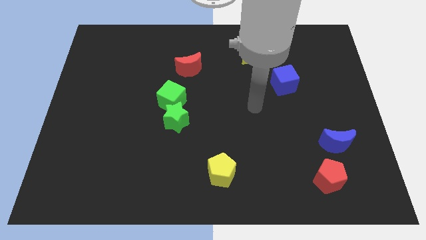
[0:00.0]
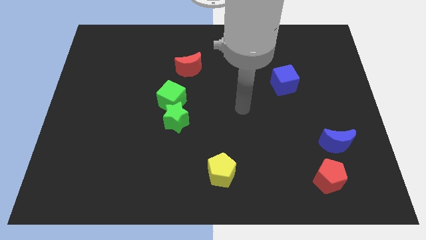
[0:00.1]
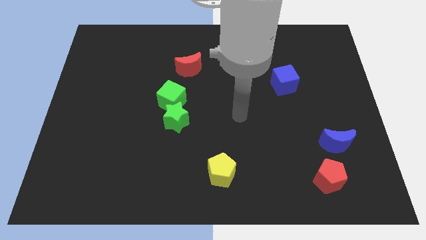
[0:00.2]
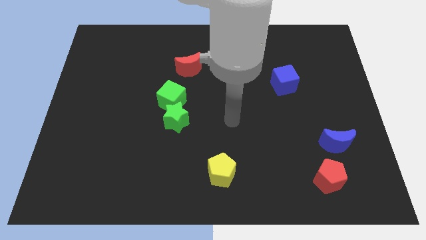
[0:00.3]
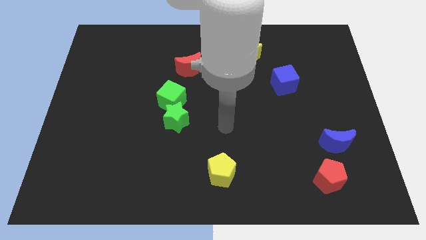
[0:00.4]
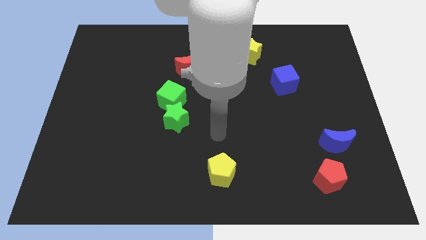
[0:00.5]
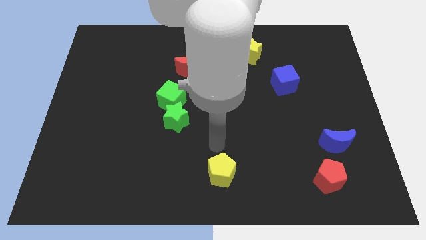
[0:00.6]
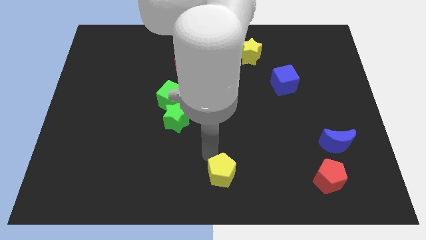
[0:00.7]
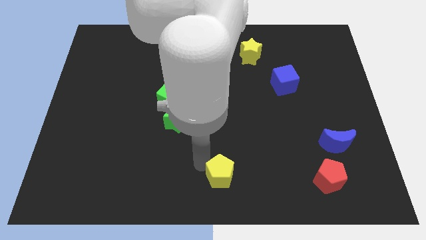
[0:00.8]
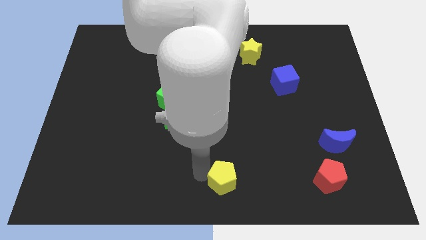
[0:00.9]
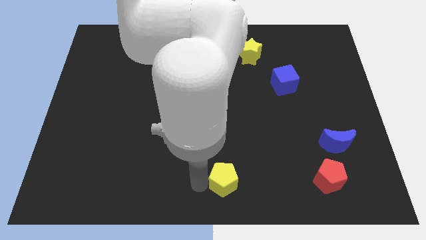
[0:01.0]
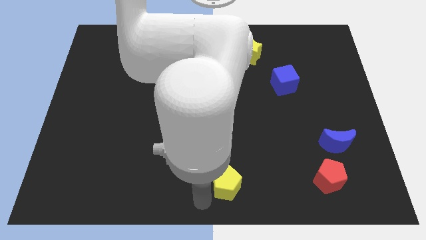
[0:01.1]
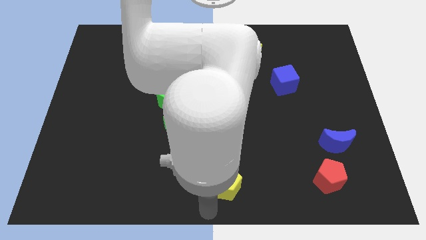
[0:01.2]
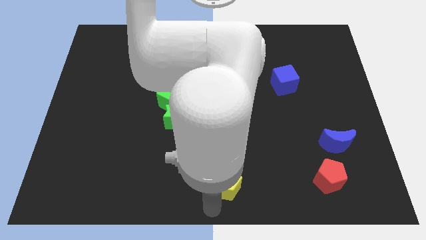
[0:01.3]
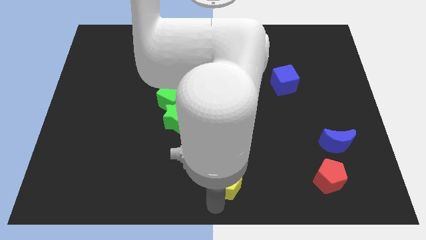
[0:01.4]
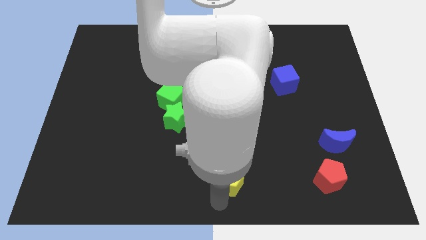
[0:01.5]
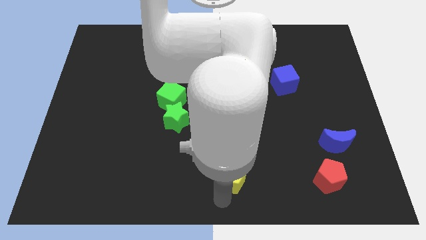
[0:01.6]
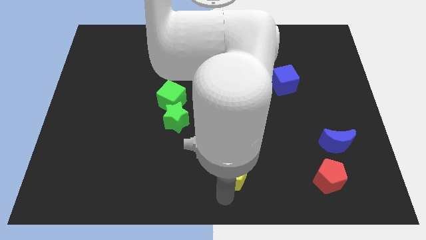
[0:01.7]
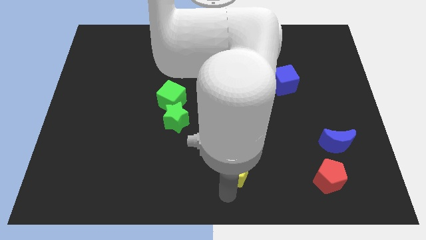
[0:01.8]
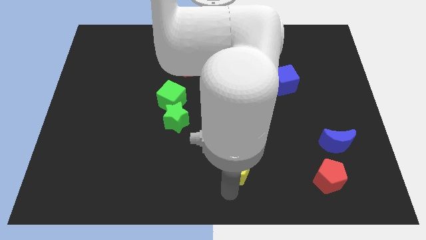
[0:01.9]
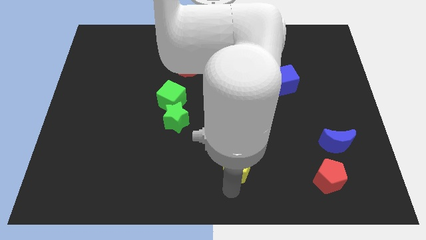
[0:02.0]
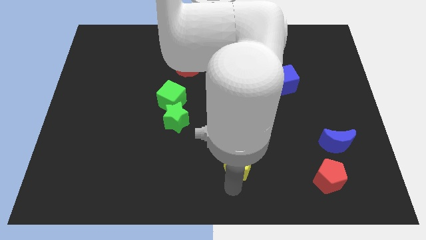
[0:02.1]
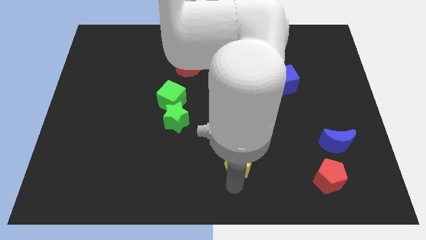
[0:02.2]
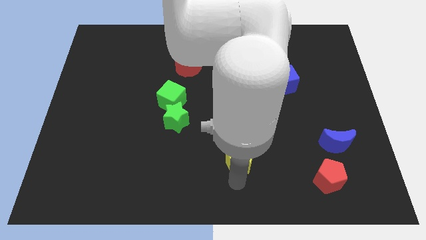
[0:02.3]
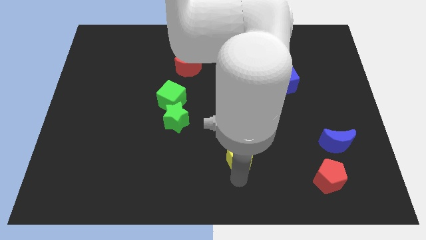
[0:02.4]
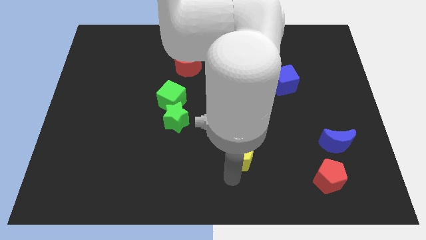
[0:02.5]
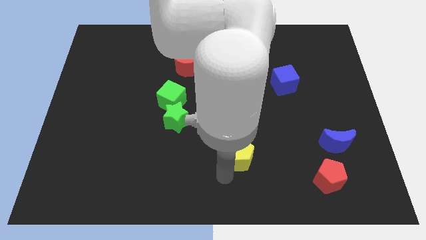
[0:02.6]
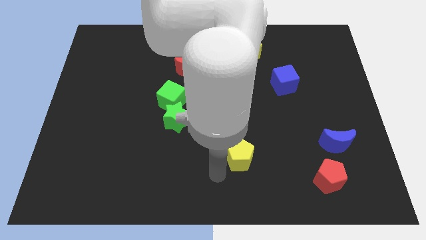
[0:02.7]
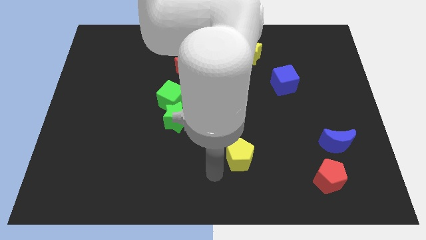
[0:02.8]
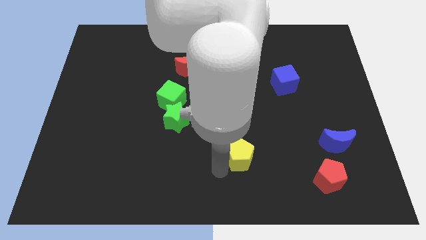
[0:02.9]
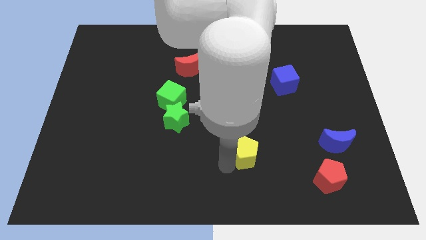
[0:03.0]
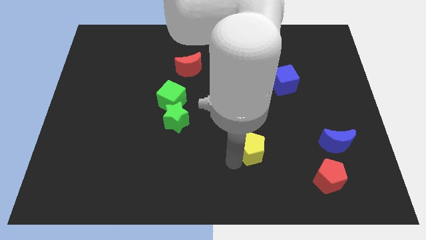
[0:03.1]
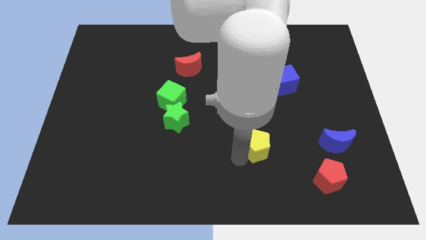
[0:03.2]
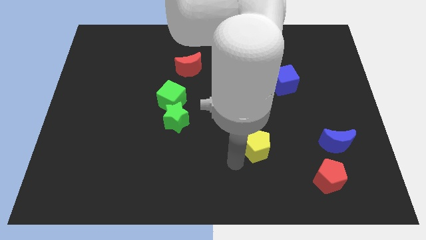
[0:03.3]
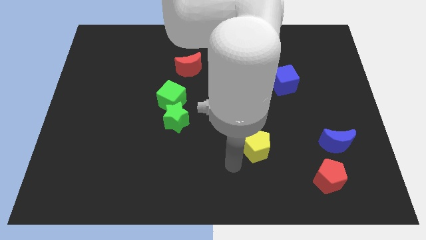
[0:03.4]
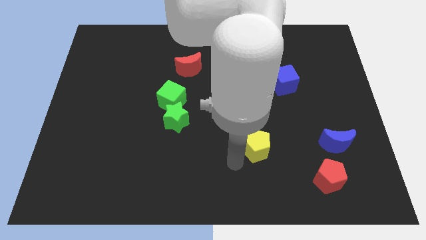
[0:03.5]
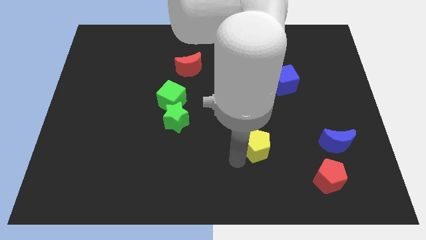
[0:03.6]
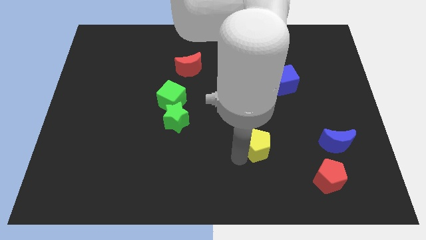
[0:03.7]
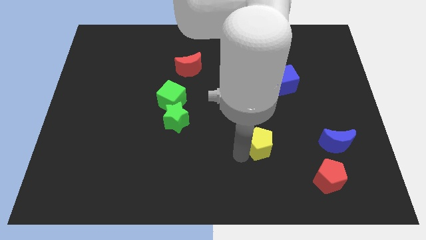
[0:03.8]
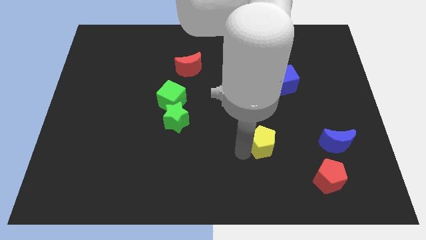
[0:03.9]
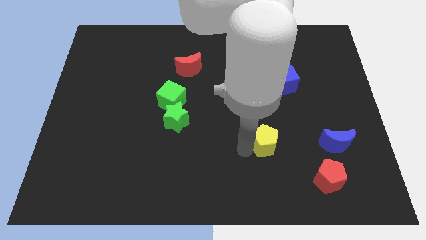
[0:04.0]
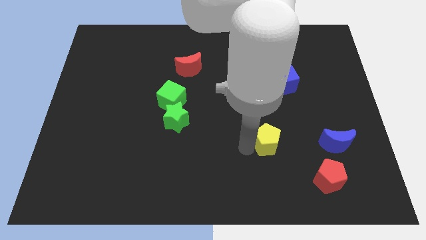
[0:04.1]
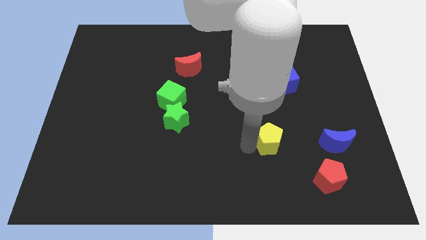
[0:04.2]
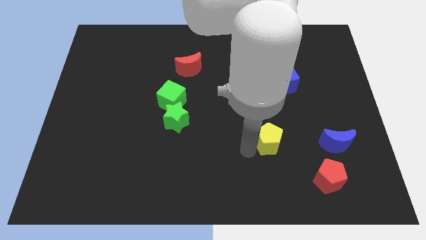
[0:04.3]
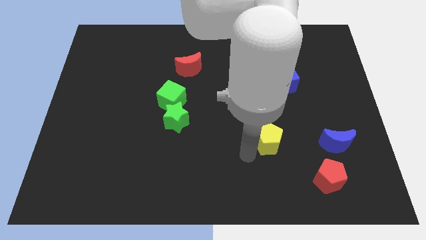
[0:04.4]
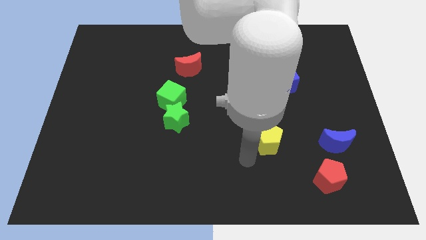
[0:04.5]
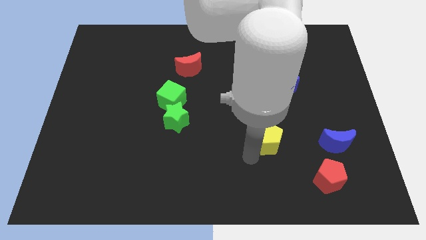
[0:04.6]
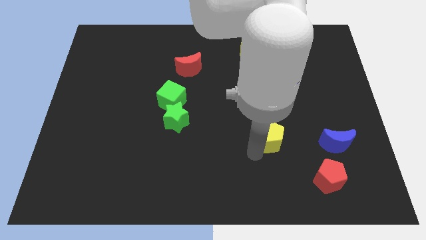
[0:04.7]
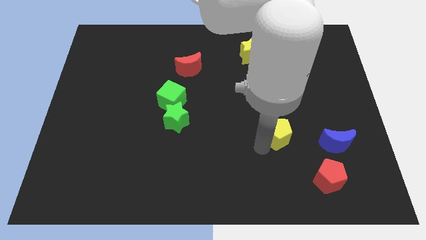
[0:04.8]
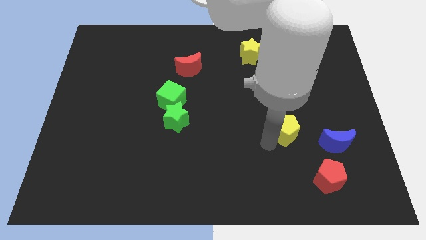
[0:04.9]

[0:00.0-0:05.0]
slide the yellow pentagon below the blue cube

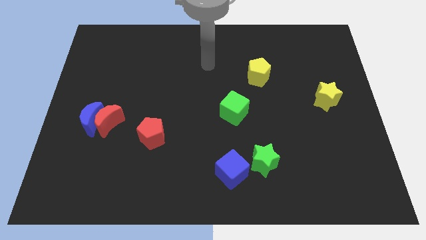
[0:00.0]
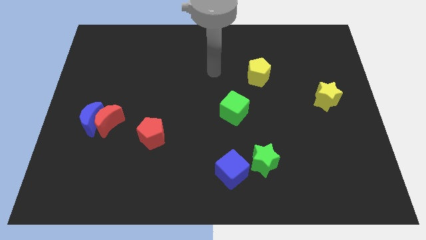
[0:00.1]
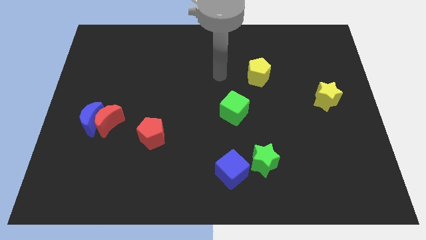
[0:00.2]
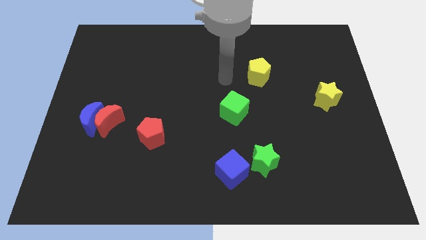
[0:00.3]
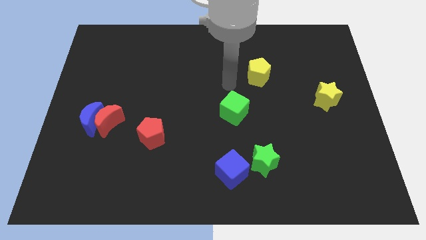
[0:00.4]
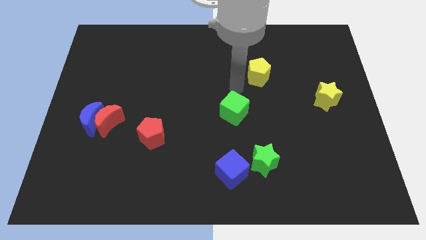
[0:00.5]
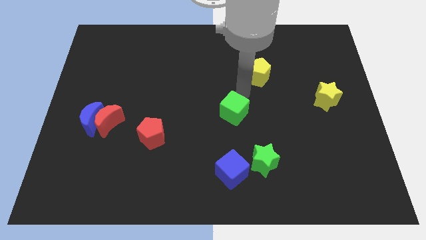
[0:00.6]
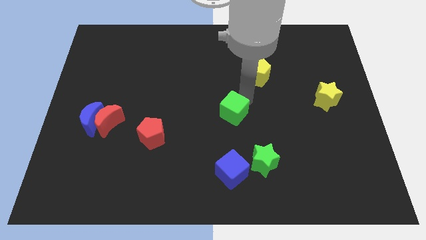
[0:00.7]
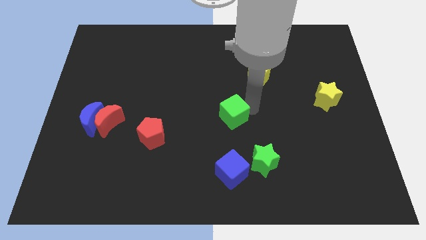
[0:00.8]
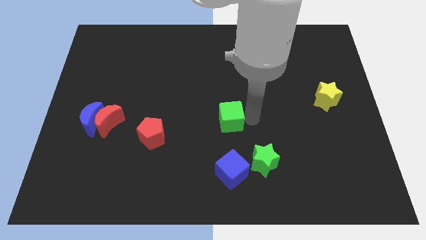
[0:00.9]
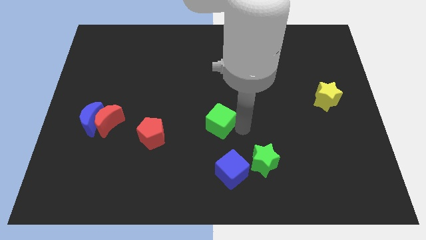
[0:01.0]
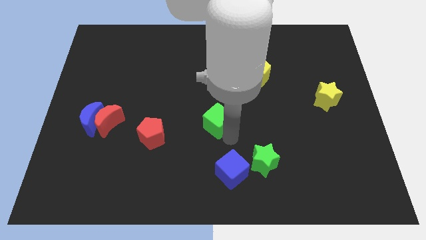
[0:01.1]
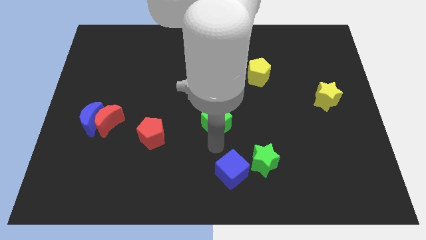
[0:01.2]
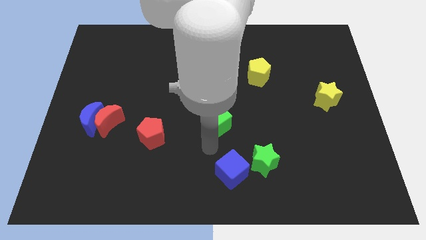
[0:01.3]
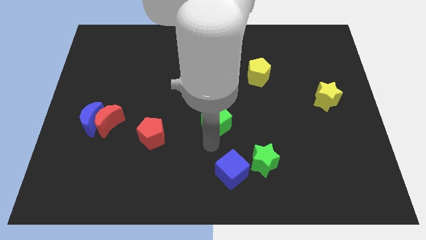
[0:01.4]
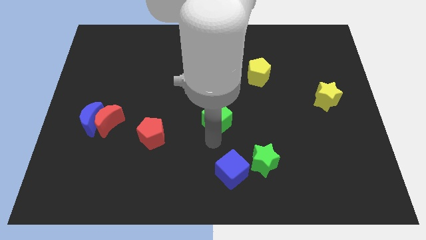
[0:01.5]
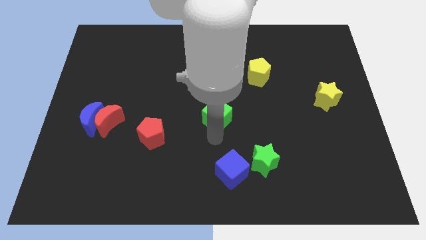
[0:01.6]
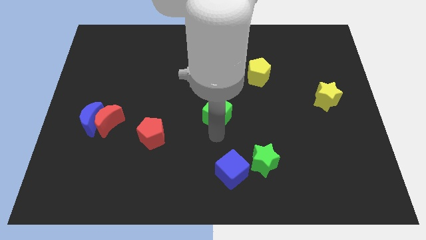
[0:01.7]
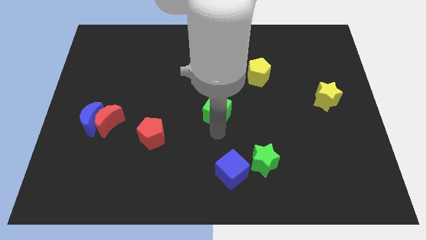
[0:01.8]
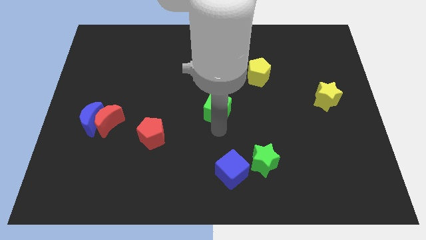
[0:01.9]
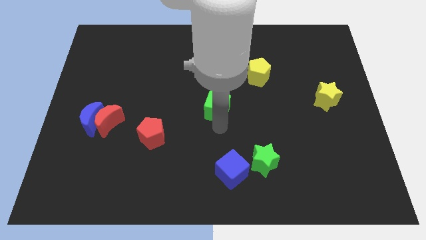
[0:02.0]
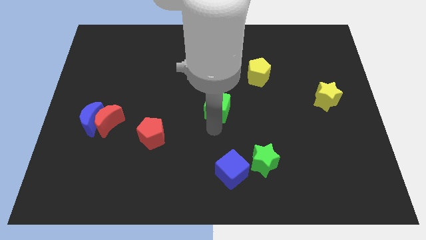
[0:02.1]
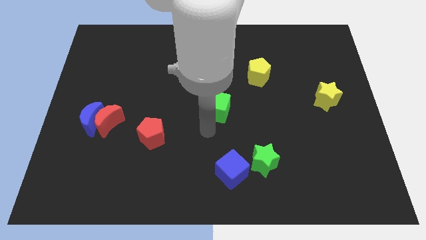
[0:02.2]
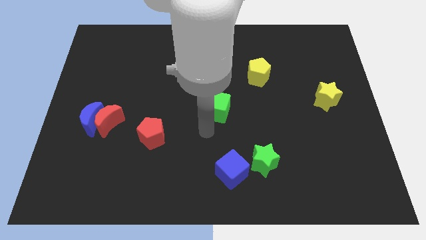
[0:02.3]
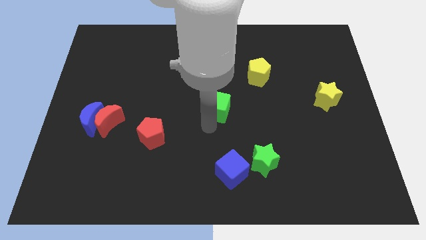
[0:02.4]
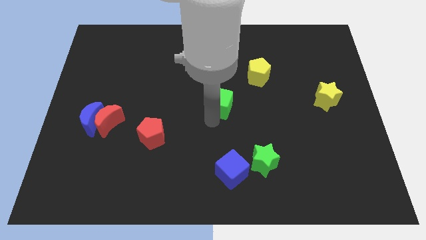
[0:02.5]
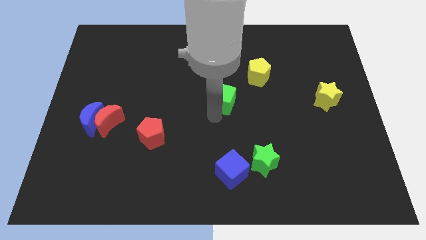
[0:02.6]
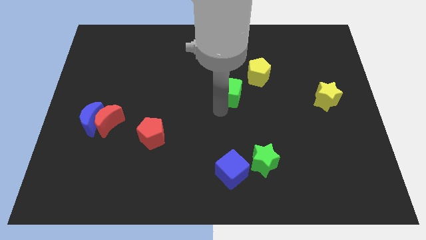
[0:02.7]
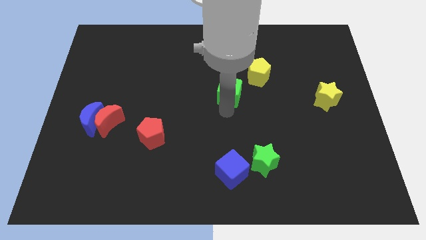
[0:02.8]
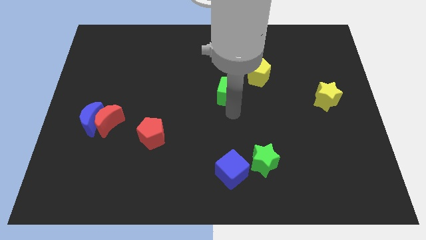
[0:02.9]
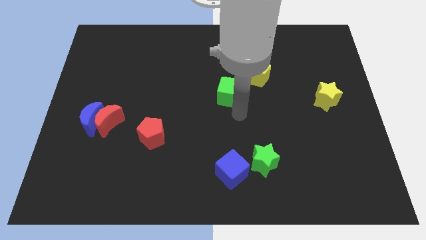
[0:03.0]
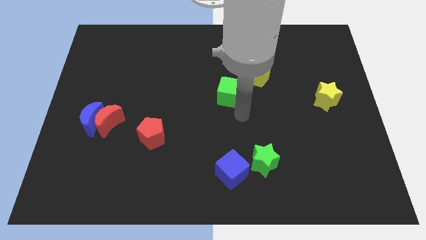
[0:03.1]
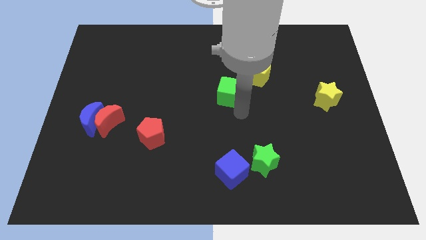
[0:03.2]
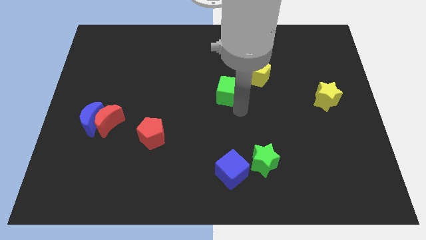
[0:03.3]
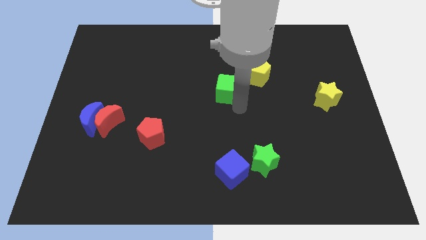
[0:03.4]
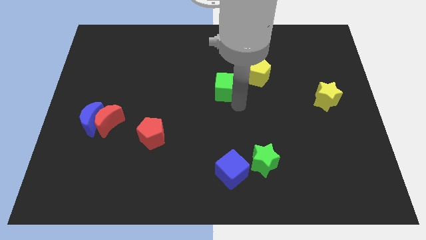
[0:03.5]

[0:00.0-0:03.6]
move the green cube left of the yellow pentagon
